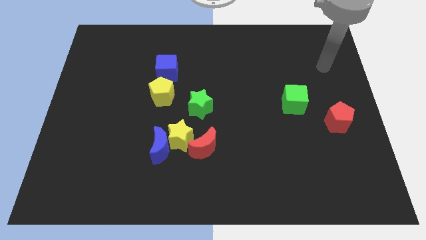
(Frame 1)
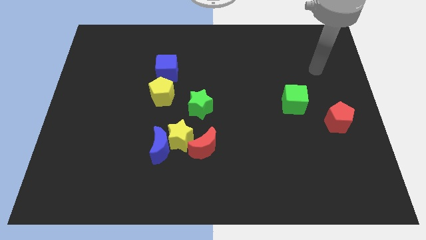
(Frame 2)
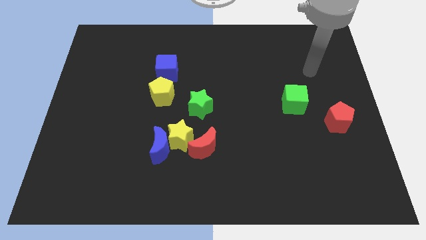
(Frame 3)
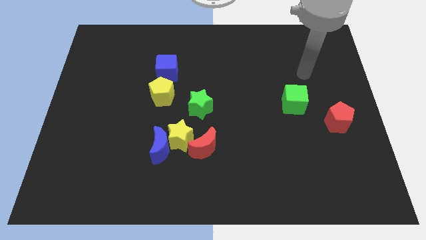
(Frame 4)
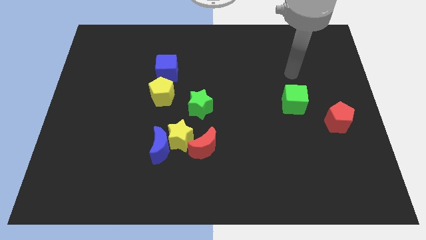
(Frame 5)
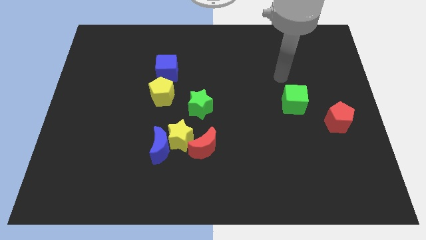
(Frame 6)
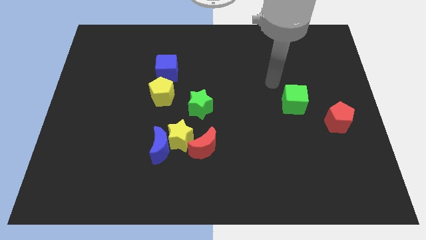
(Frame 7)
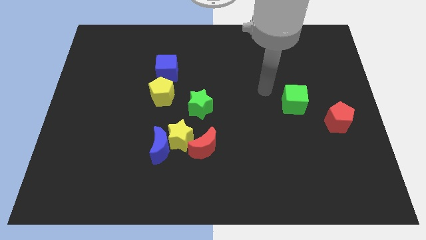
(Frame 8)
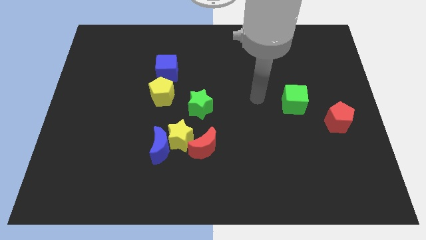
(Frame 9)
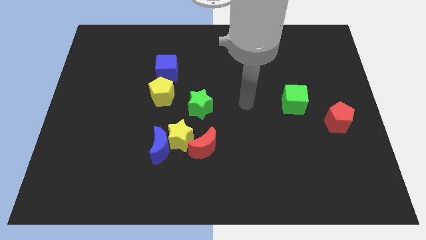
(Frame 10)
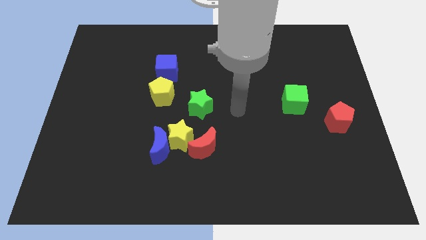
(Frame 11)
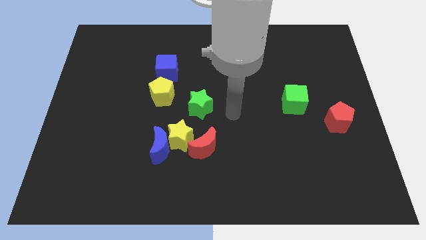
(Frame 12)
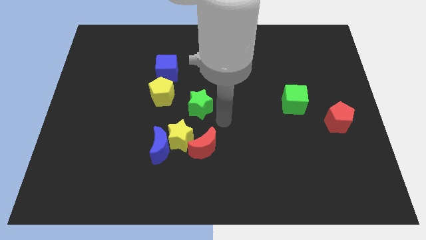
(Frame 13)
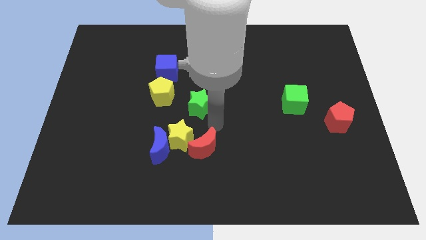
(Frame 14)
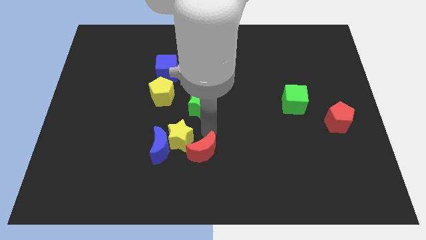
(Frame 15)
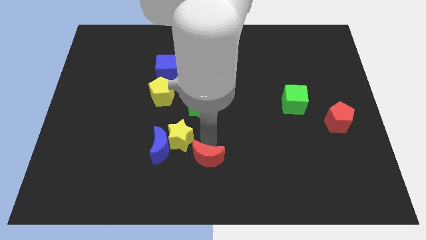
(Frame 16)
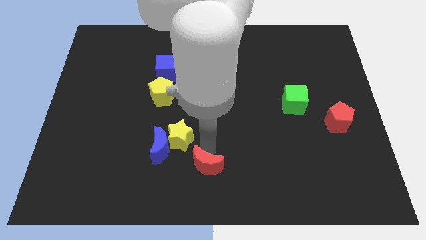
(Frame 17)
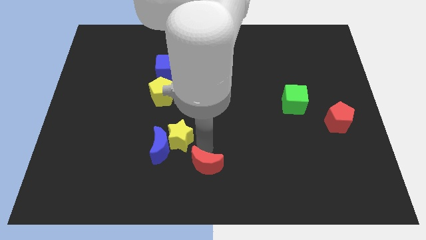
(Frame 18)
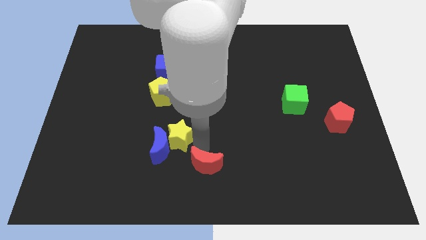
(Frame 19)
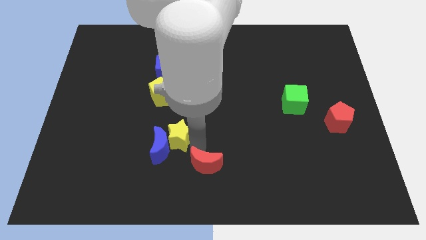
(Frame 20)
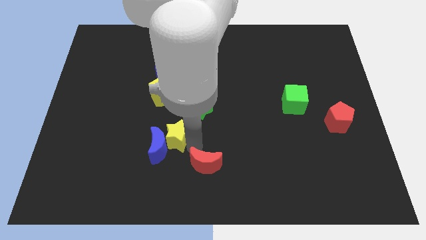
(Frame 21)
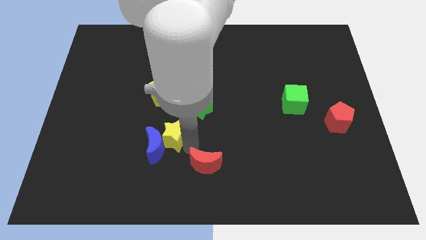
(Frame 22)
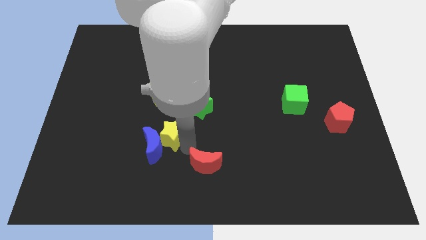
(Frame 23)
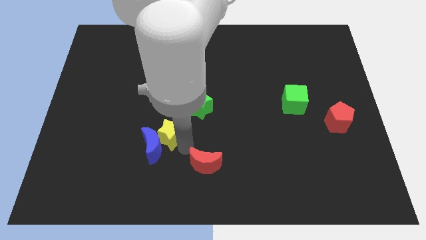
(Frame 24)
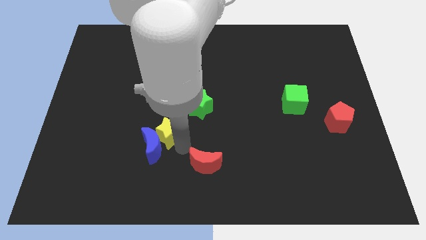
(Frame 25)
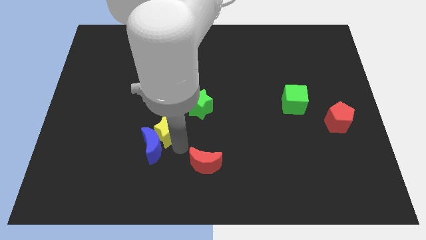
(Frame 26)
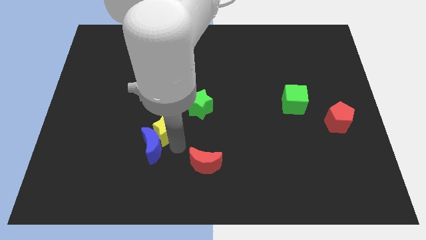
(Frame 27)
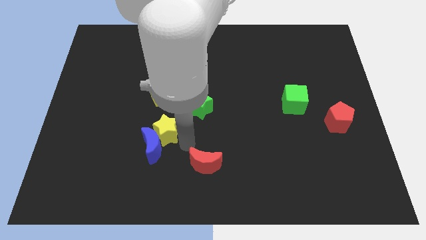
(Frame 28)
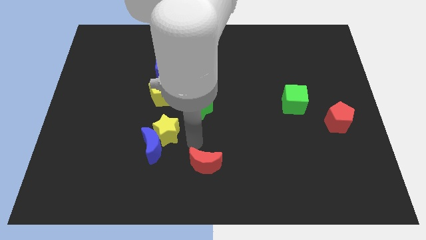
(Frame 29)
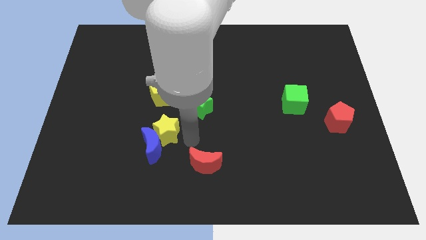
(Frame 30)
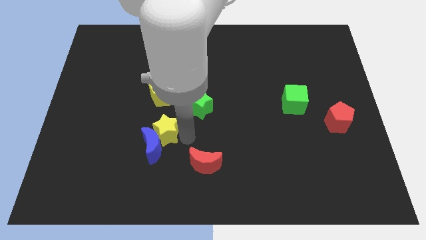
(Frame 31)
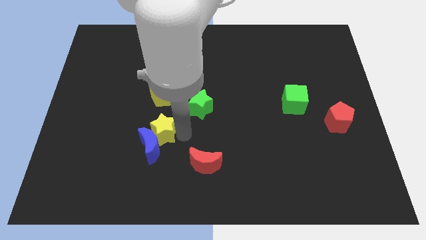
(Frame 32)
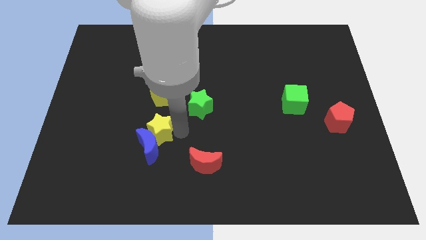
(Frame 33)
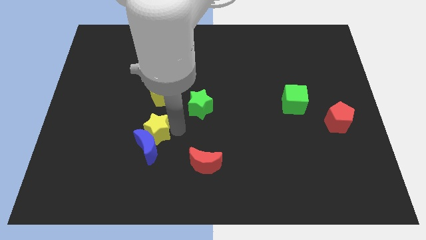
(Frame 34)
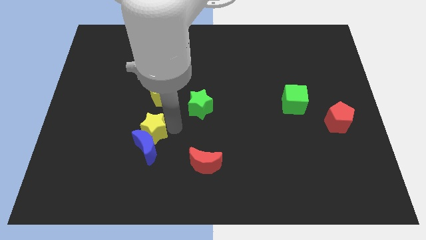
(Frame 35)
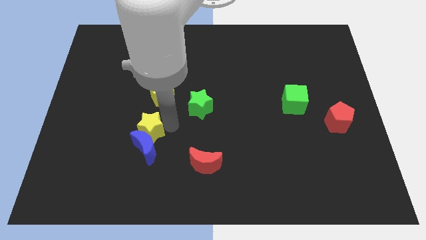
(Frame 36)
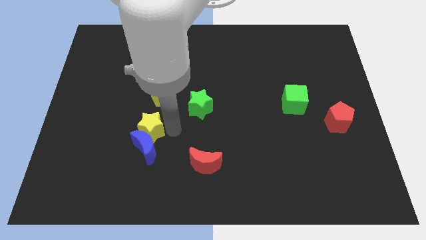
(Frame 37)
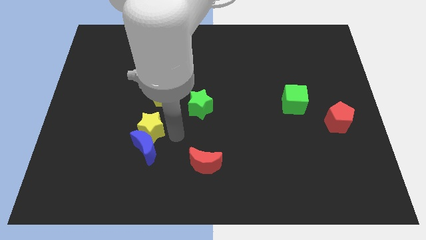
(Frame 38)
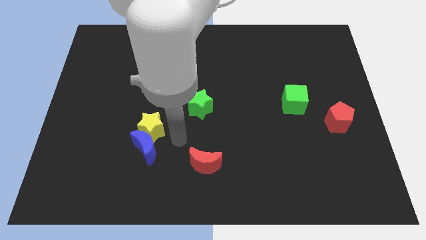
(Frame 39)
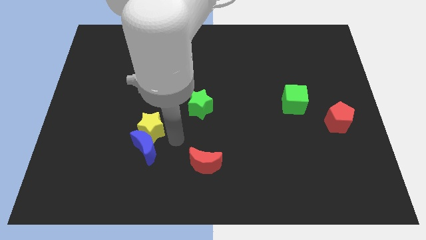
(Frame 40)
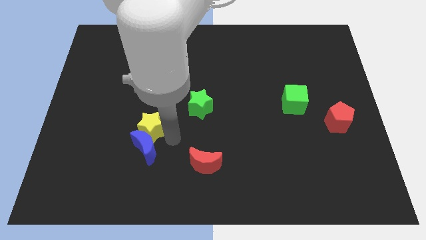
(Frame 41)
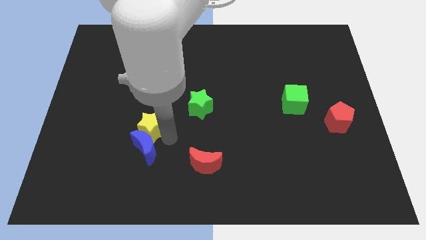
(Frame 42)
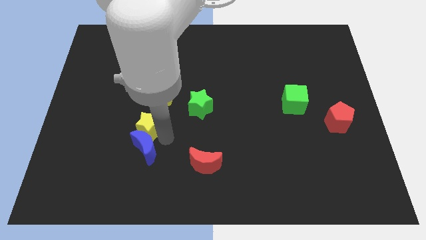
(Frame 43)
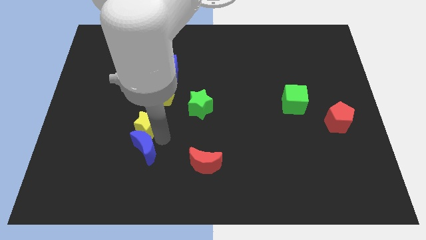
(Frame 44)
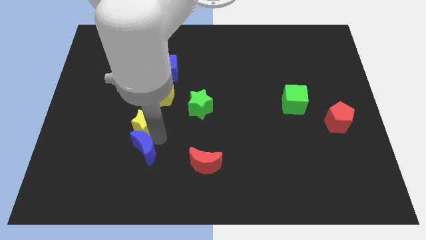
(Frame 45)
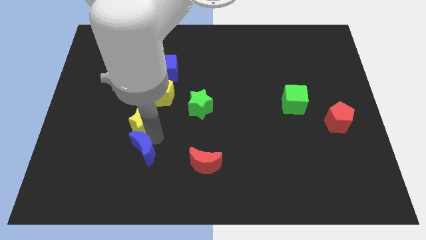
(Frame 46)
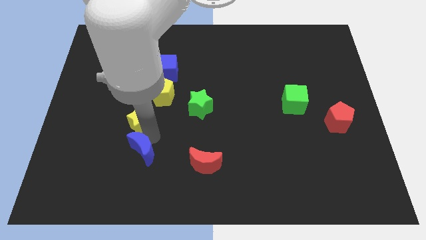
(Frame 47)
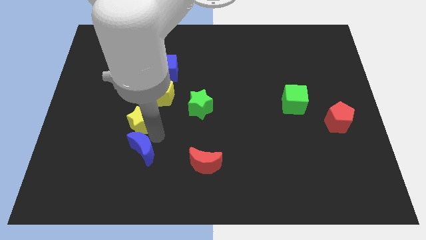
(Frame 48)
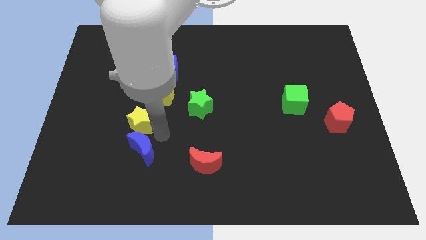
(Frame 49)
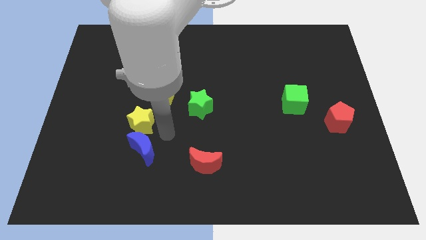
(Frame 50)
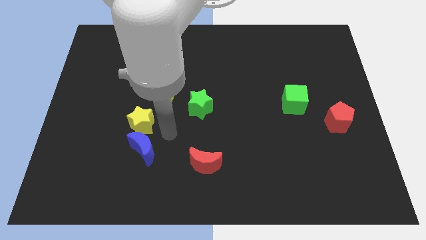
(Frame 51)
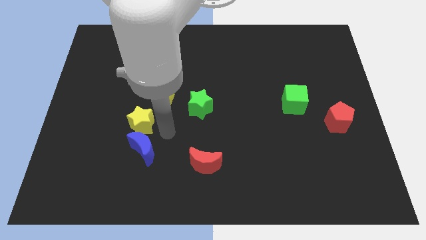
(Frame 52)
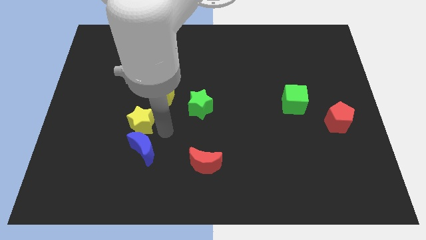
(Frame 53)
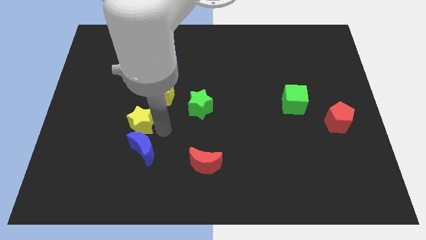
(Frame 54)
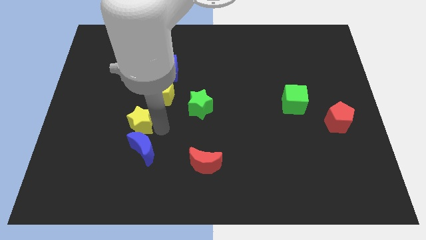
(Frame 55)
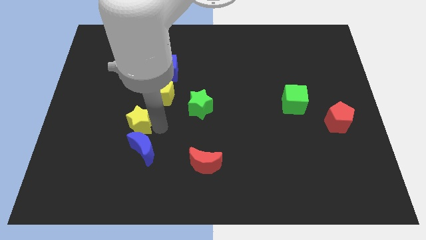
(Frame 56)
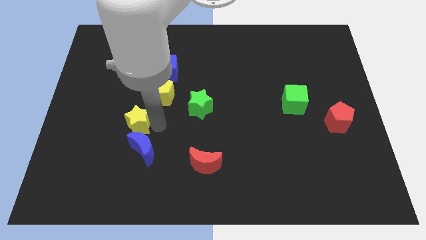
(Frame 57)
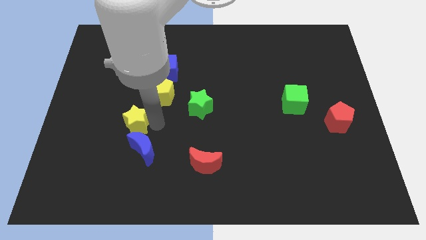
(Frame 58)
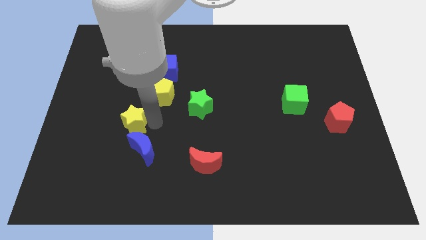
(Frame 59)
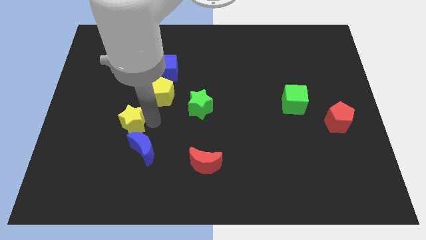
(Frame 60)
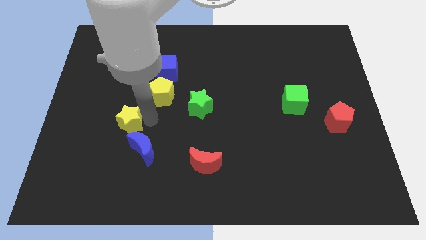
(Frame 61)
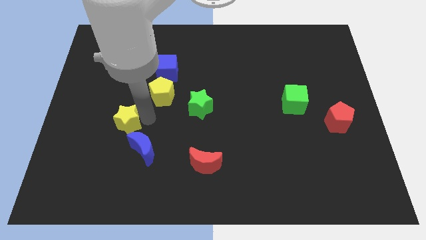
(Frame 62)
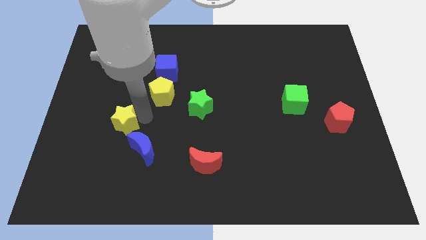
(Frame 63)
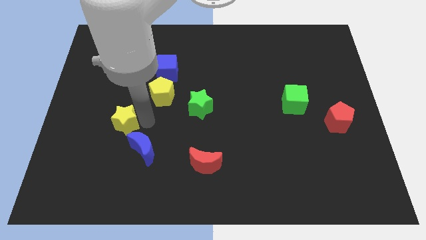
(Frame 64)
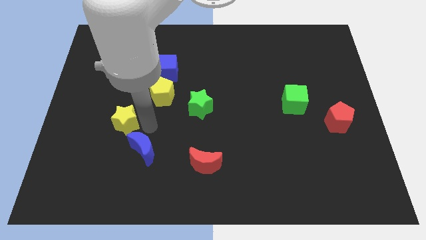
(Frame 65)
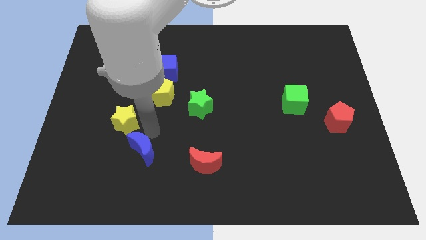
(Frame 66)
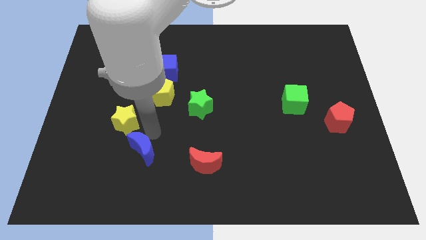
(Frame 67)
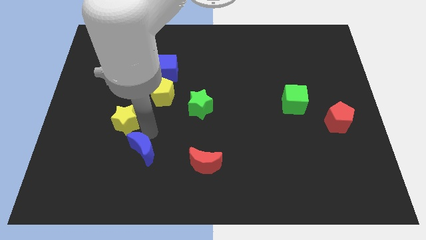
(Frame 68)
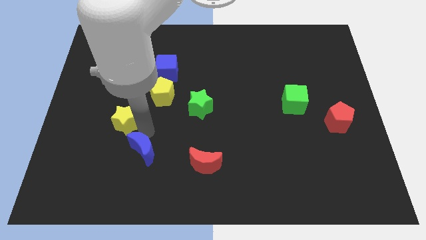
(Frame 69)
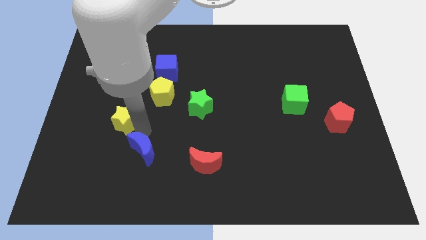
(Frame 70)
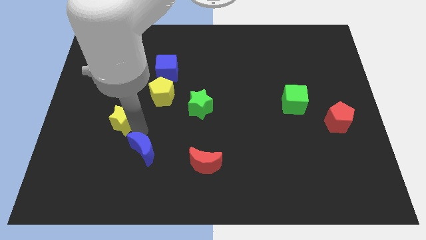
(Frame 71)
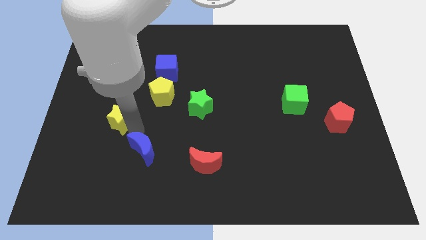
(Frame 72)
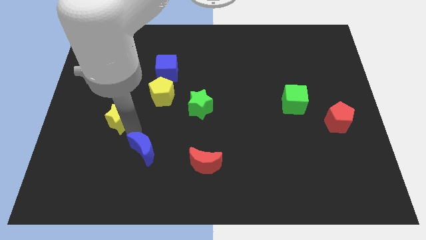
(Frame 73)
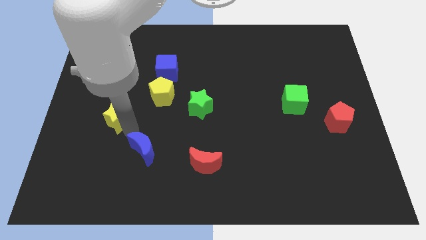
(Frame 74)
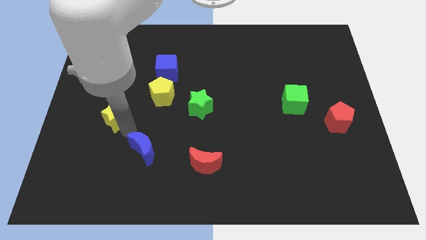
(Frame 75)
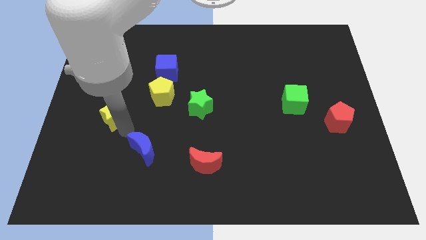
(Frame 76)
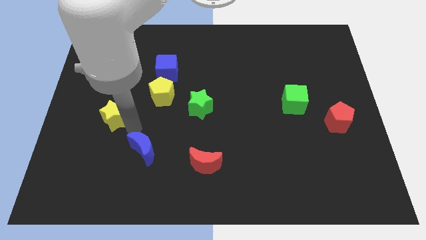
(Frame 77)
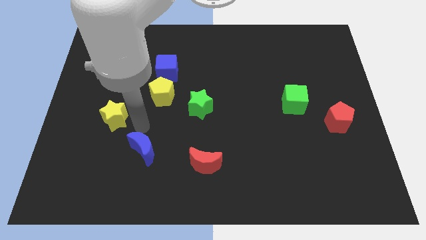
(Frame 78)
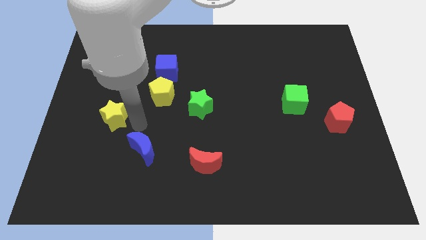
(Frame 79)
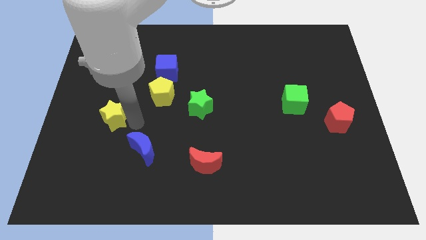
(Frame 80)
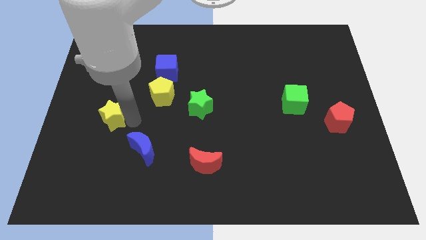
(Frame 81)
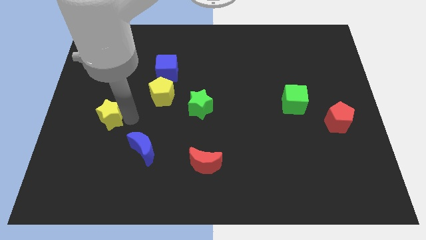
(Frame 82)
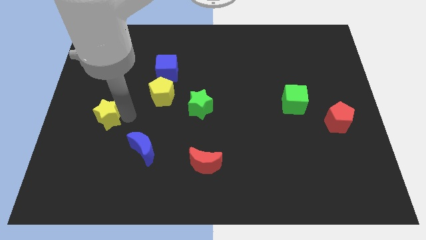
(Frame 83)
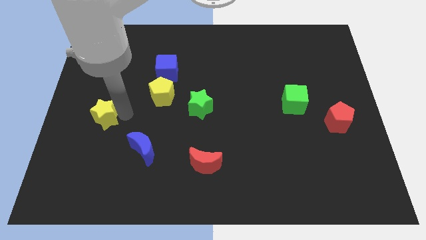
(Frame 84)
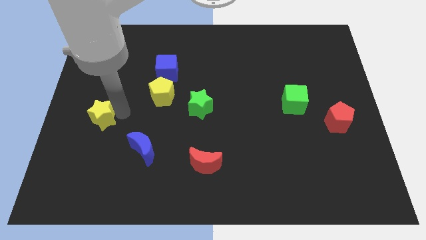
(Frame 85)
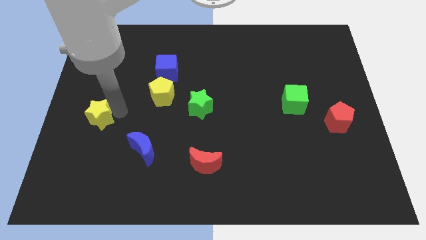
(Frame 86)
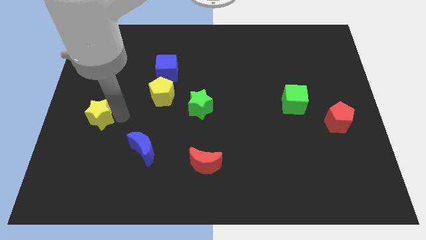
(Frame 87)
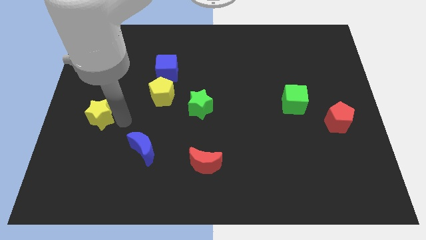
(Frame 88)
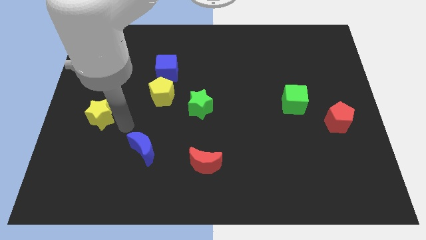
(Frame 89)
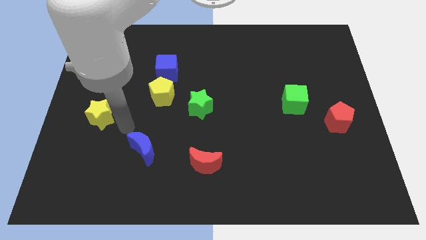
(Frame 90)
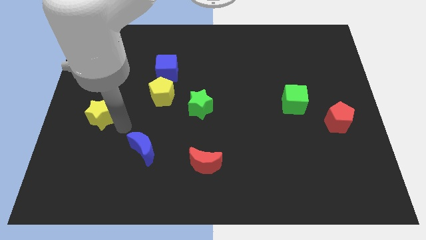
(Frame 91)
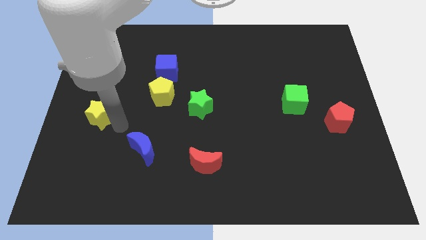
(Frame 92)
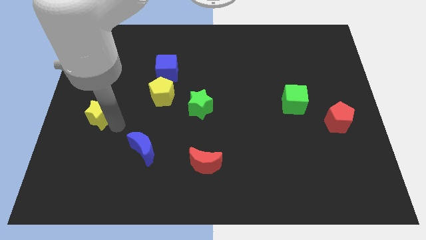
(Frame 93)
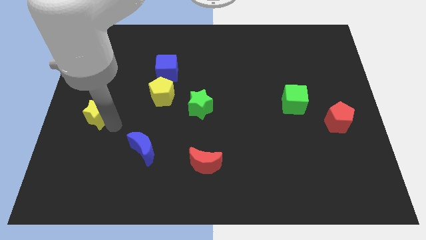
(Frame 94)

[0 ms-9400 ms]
put the yellow star to the left side
